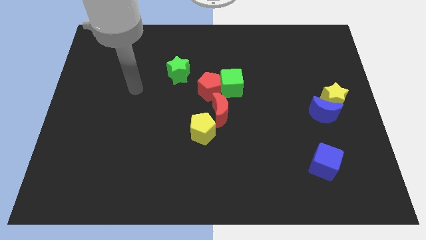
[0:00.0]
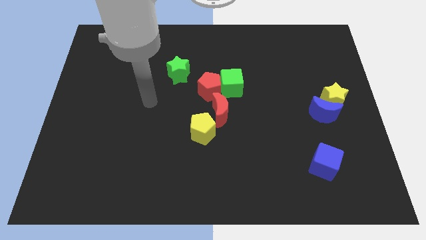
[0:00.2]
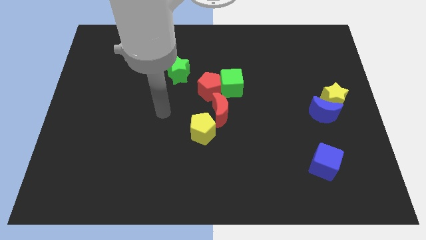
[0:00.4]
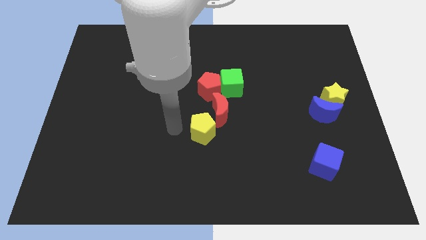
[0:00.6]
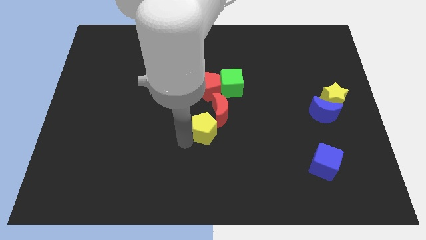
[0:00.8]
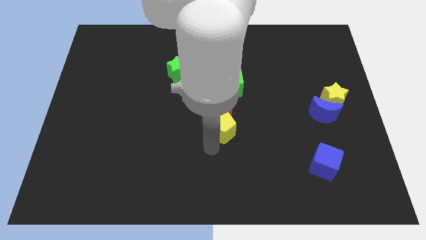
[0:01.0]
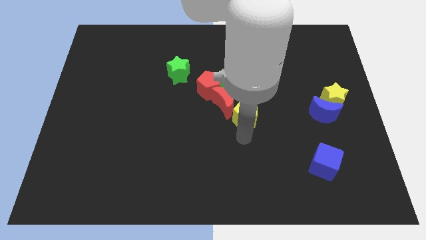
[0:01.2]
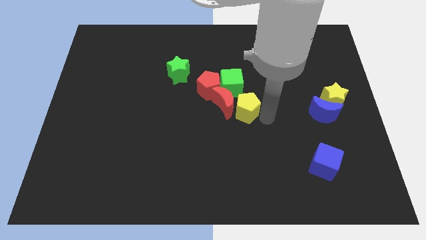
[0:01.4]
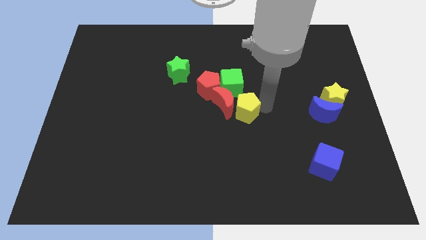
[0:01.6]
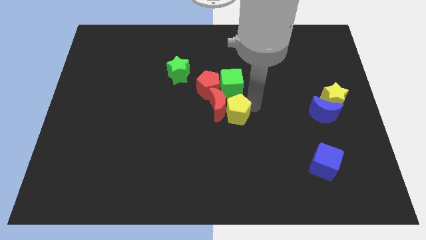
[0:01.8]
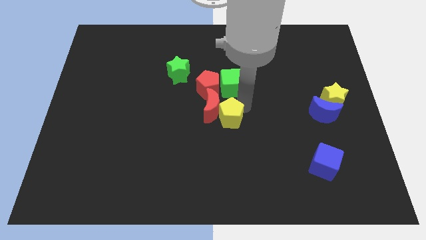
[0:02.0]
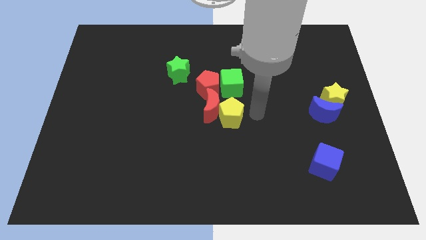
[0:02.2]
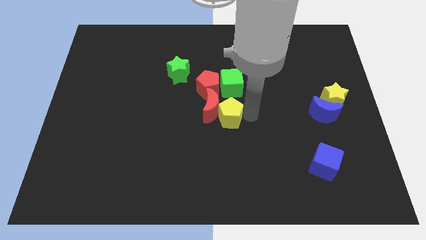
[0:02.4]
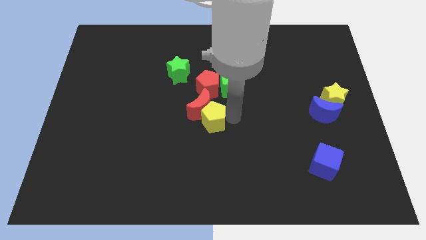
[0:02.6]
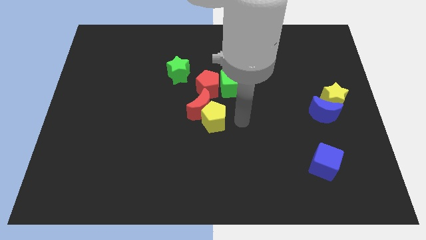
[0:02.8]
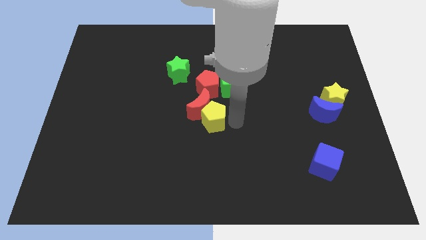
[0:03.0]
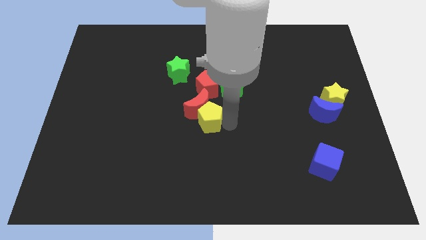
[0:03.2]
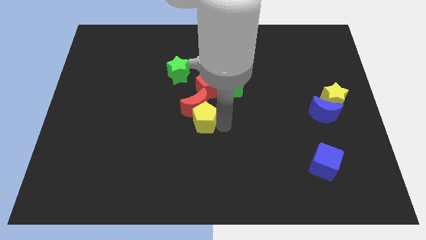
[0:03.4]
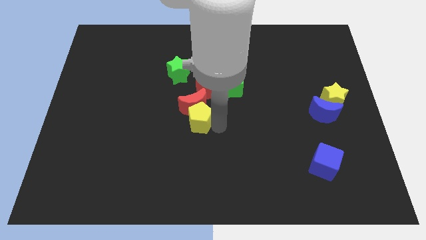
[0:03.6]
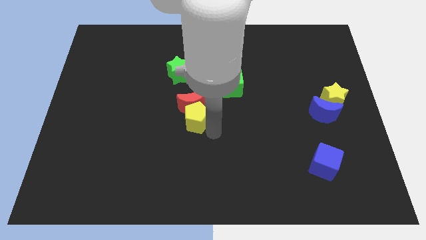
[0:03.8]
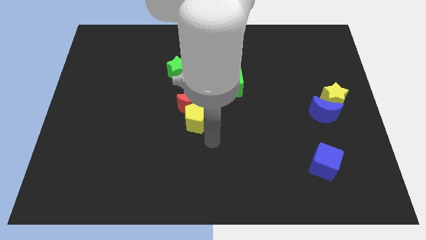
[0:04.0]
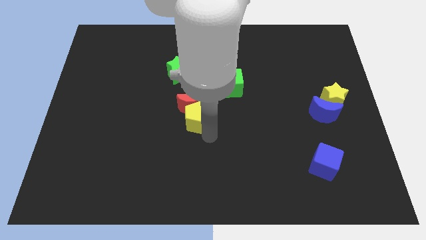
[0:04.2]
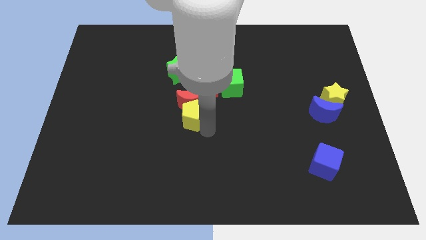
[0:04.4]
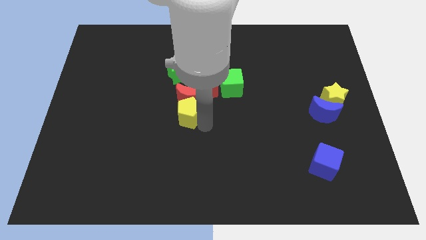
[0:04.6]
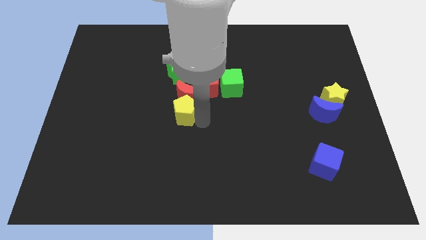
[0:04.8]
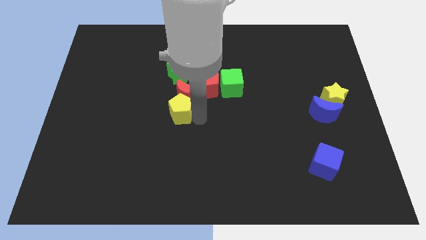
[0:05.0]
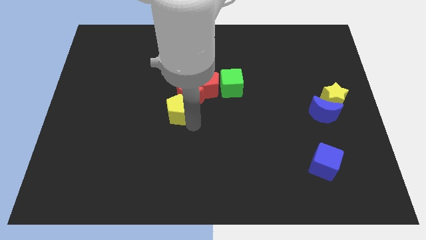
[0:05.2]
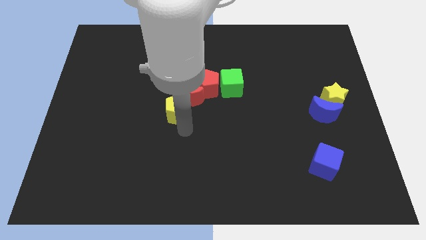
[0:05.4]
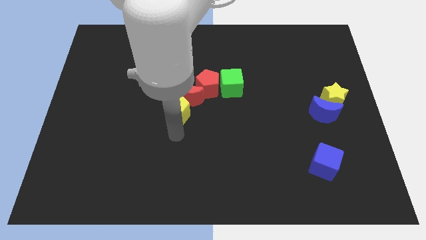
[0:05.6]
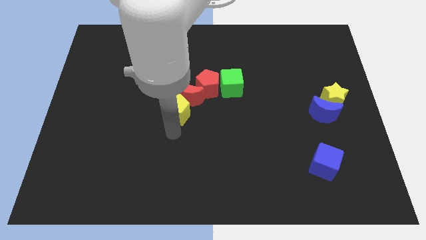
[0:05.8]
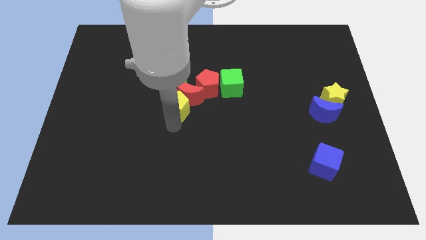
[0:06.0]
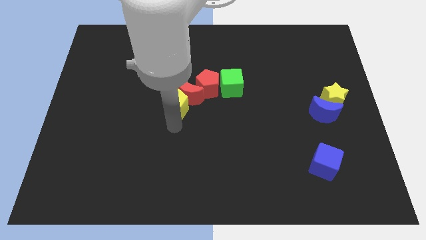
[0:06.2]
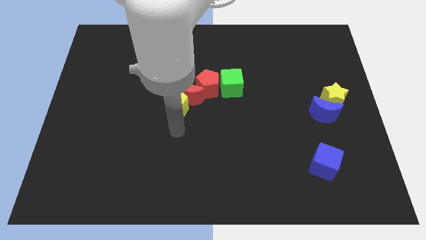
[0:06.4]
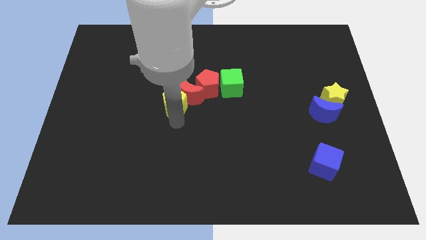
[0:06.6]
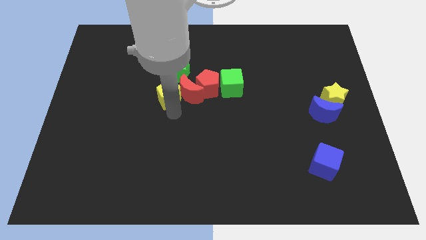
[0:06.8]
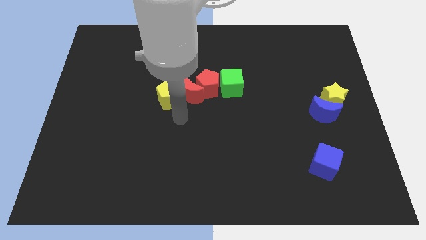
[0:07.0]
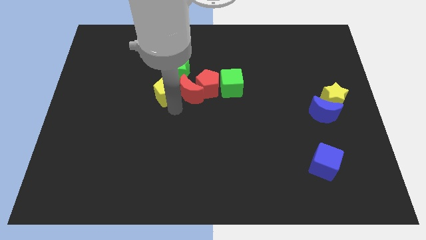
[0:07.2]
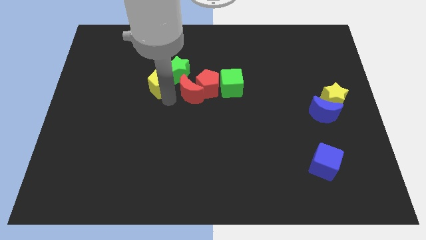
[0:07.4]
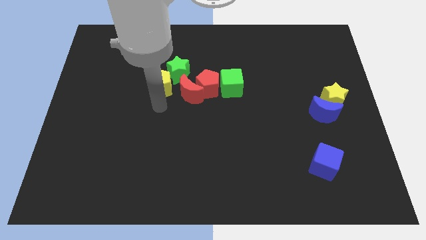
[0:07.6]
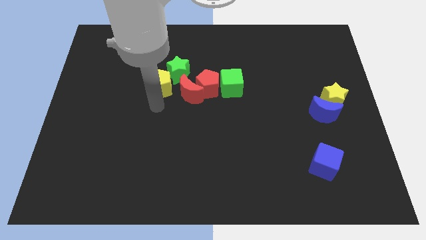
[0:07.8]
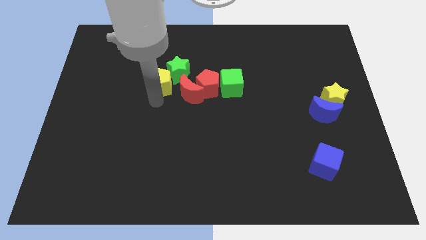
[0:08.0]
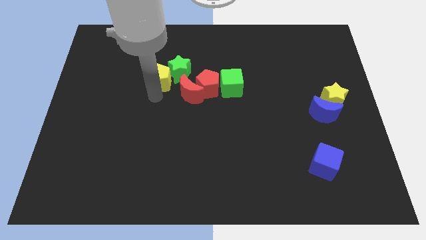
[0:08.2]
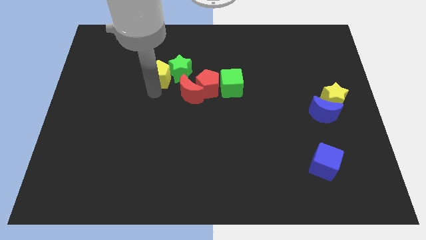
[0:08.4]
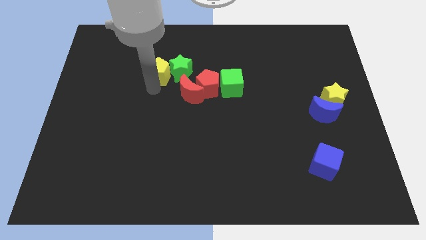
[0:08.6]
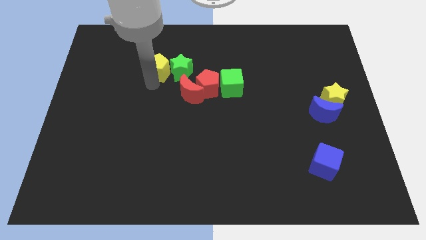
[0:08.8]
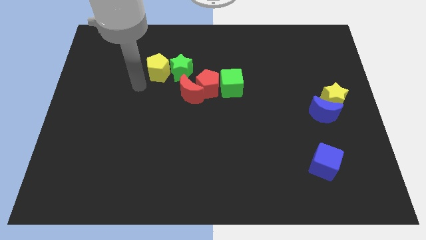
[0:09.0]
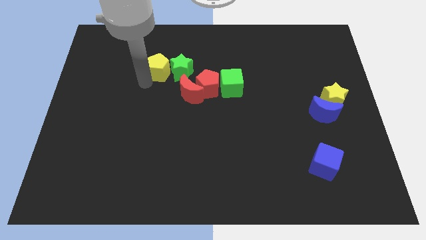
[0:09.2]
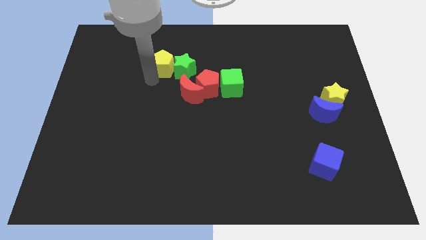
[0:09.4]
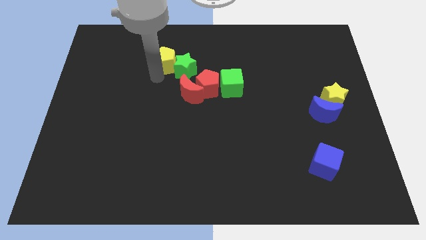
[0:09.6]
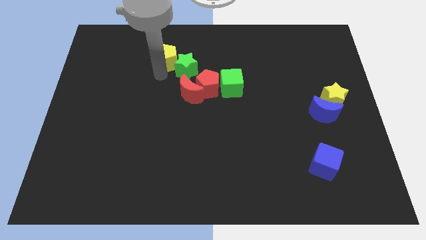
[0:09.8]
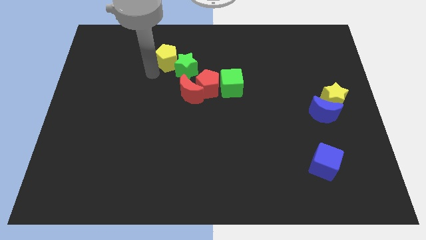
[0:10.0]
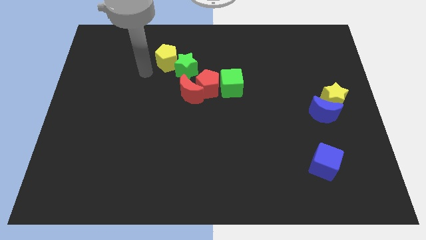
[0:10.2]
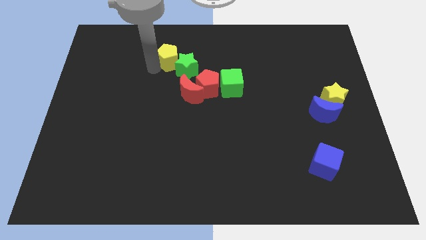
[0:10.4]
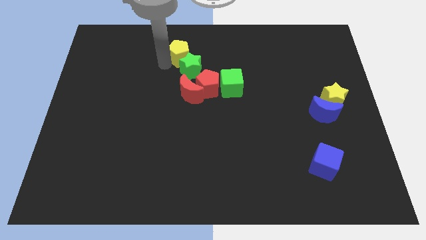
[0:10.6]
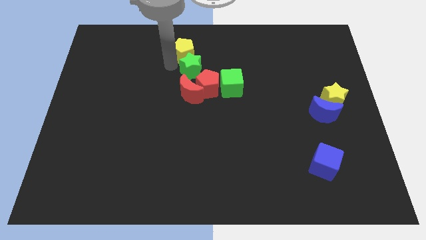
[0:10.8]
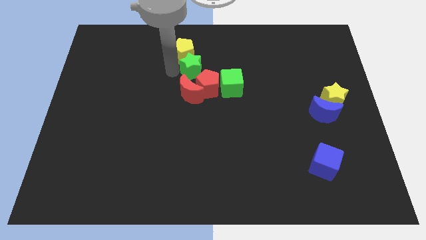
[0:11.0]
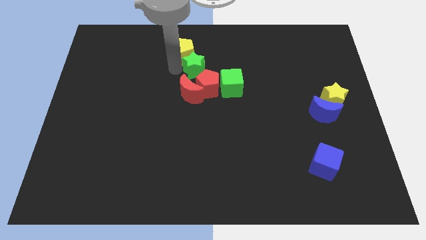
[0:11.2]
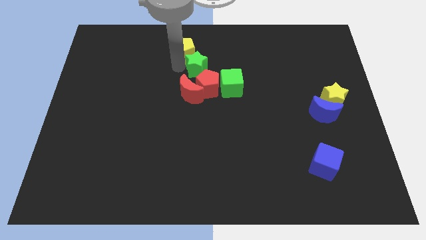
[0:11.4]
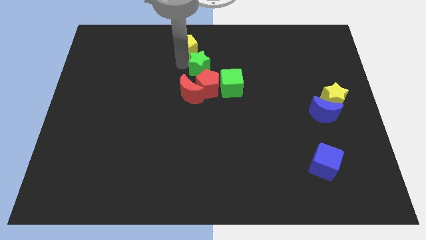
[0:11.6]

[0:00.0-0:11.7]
move the yellow pentagon to the towards your base

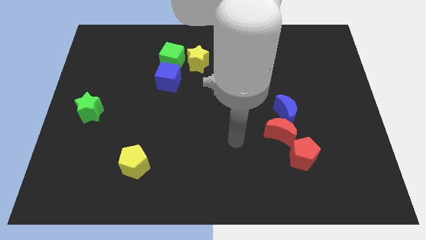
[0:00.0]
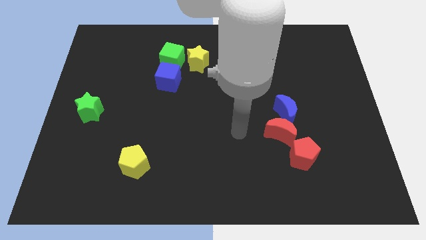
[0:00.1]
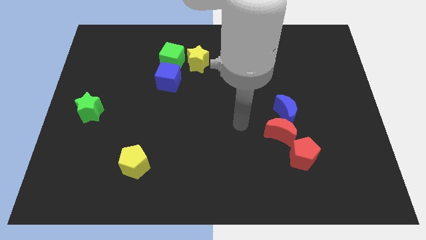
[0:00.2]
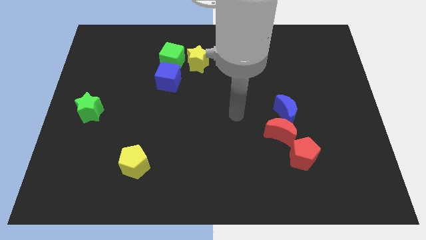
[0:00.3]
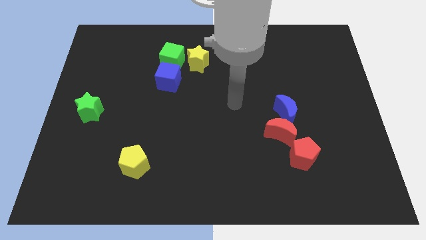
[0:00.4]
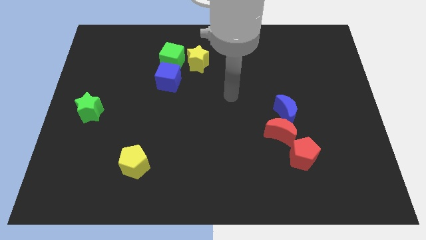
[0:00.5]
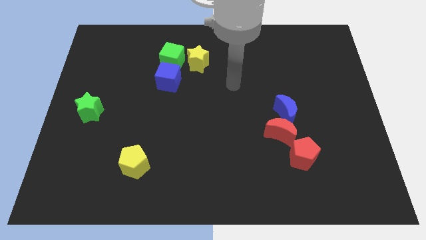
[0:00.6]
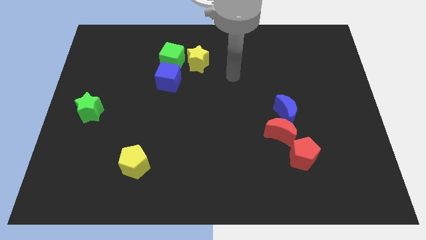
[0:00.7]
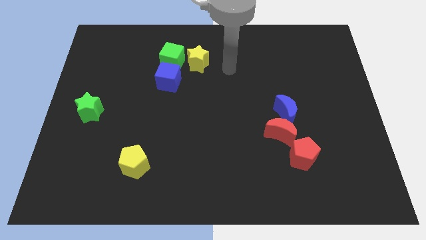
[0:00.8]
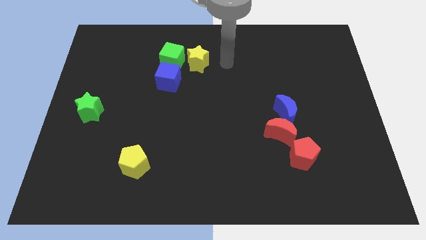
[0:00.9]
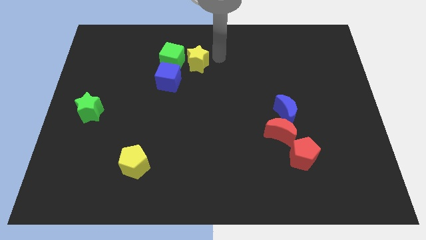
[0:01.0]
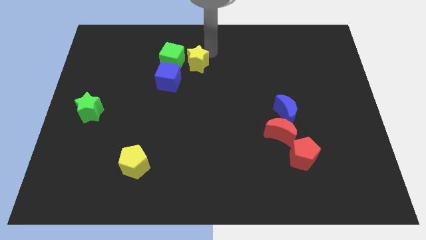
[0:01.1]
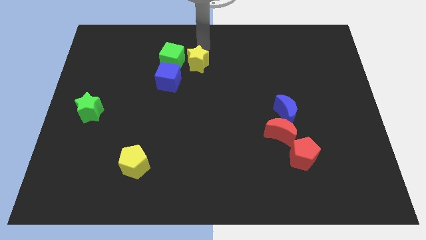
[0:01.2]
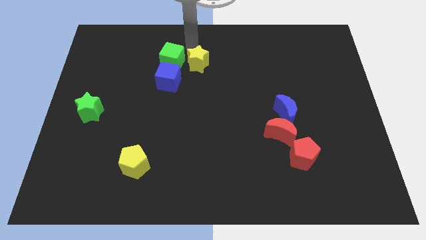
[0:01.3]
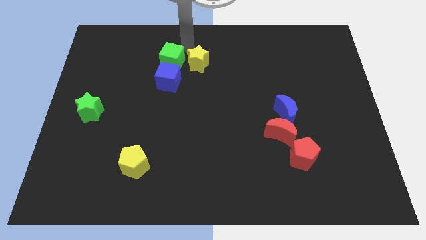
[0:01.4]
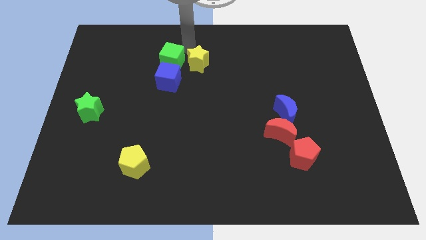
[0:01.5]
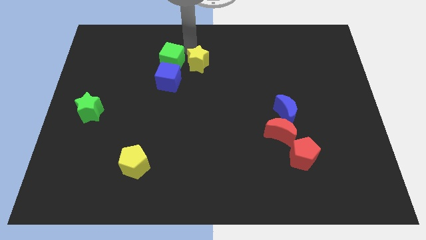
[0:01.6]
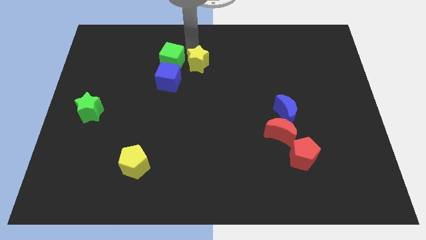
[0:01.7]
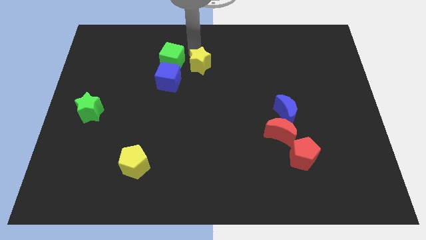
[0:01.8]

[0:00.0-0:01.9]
slide the yellow star to the middle

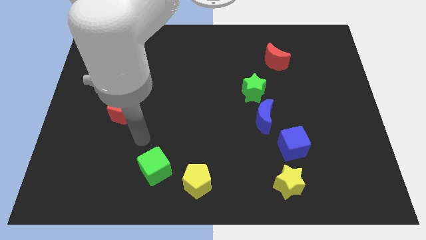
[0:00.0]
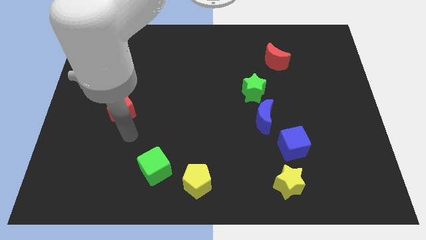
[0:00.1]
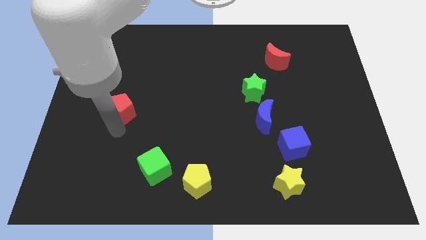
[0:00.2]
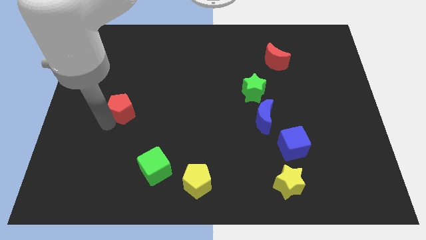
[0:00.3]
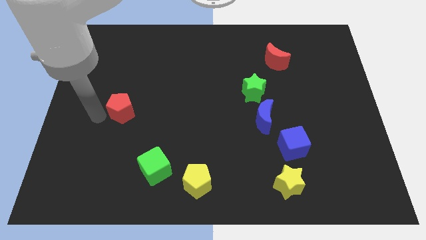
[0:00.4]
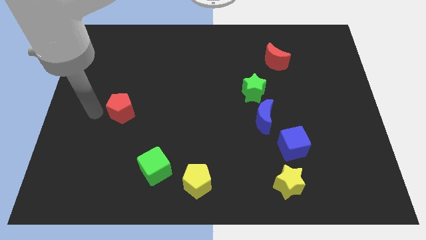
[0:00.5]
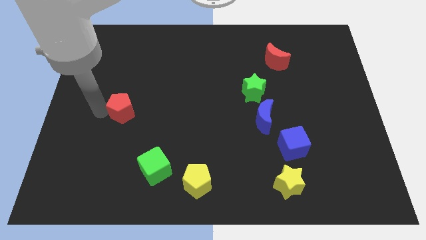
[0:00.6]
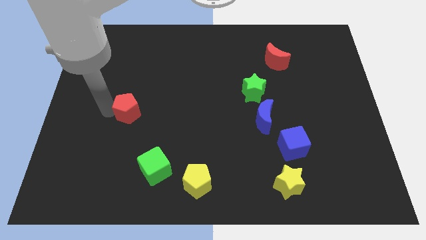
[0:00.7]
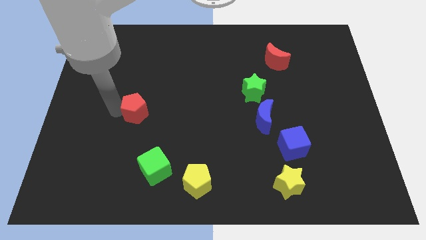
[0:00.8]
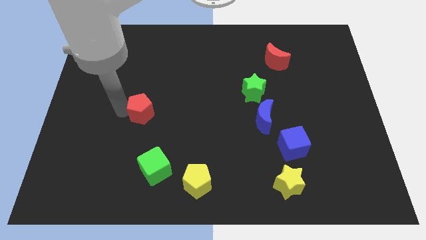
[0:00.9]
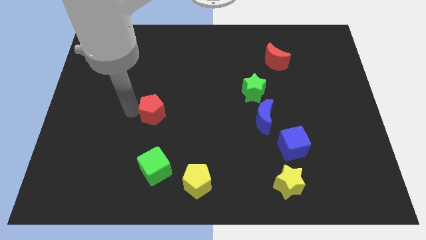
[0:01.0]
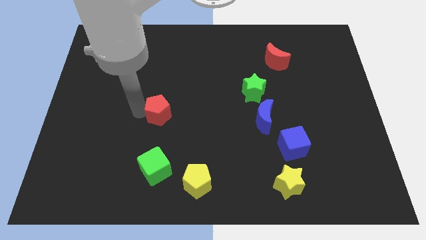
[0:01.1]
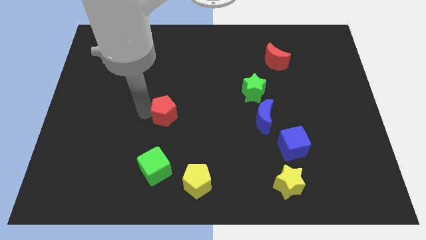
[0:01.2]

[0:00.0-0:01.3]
put the red pentagon to the middle of the board
